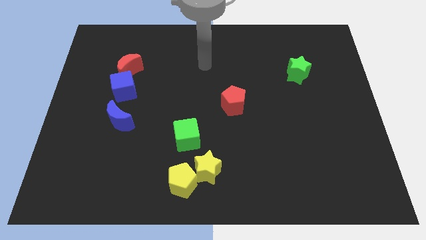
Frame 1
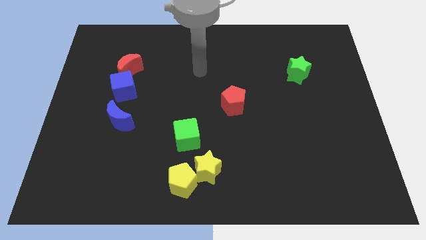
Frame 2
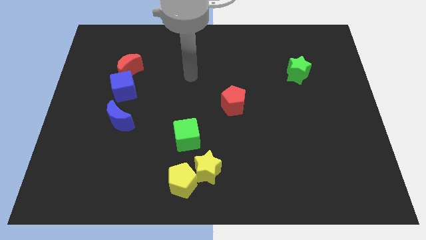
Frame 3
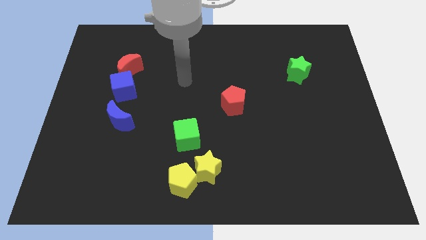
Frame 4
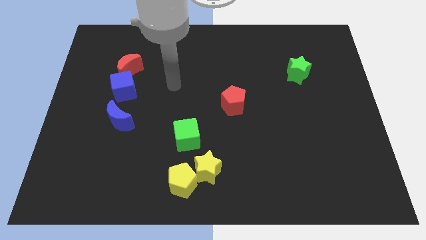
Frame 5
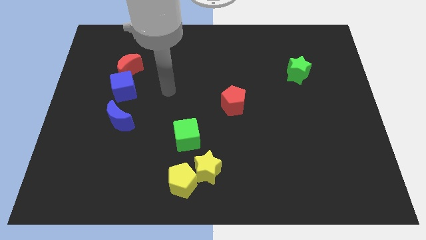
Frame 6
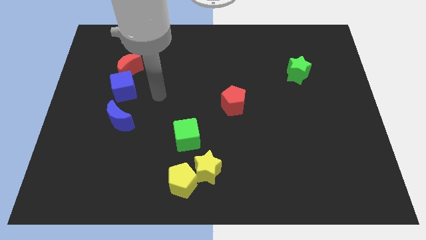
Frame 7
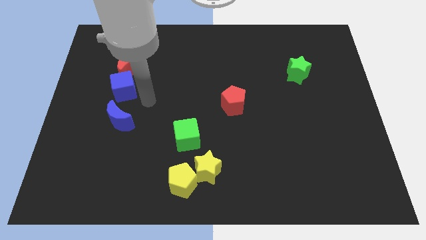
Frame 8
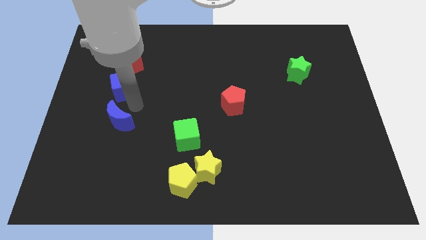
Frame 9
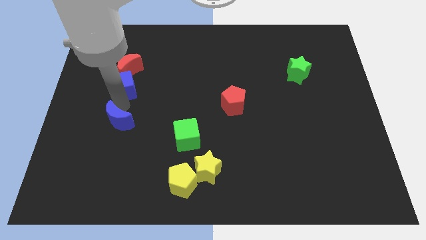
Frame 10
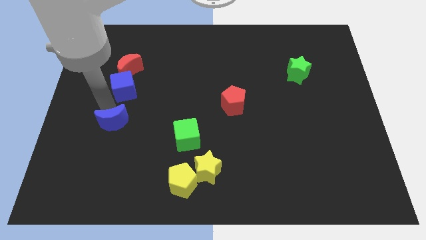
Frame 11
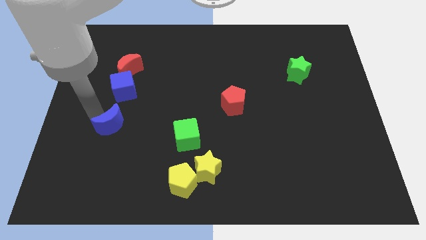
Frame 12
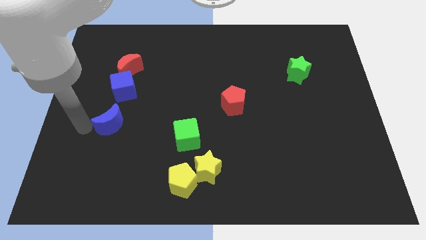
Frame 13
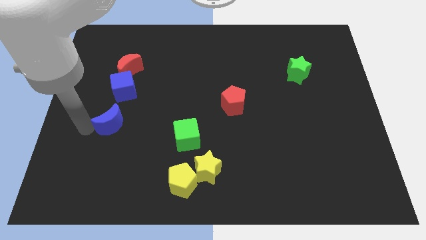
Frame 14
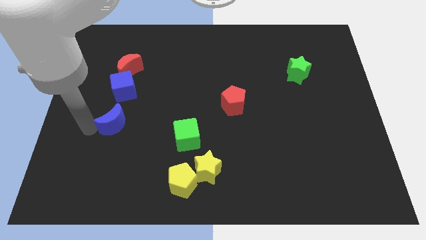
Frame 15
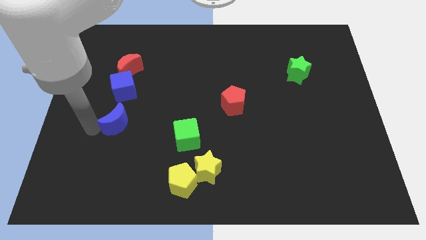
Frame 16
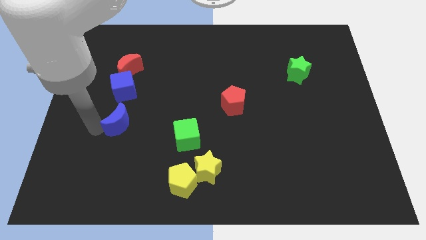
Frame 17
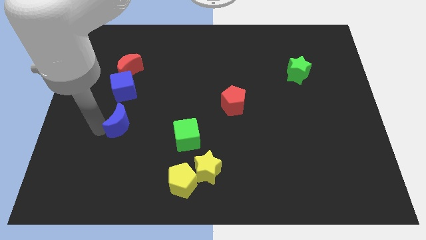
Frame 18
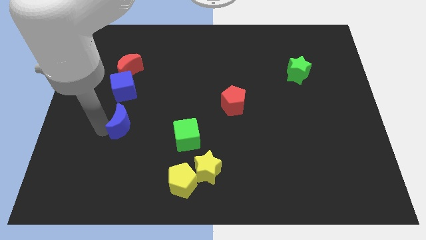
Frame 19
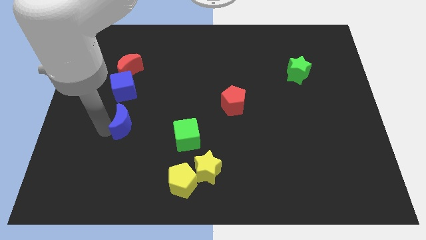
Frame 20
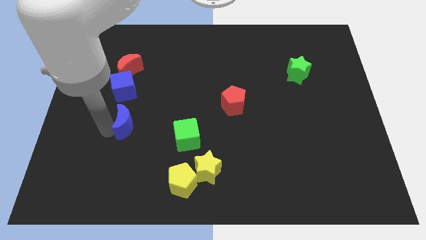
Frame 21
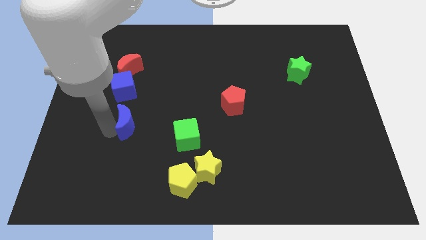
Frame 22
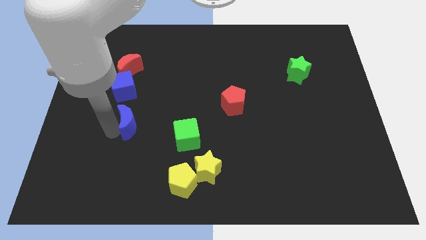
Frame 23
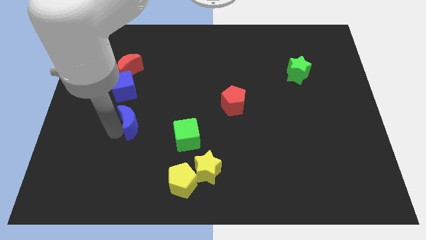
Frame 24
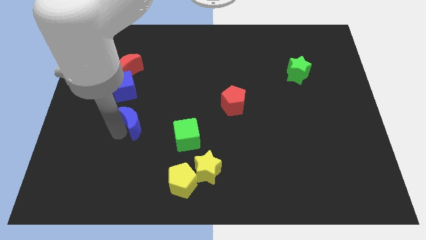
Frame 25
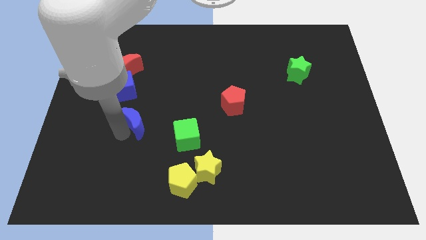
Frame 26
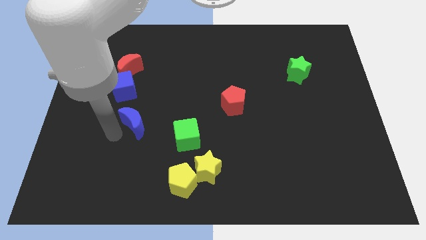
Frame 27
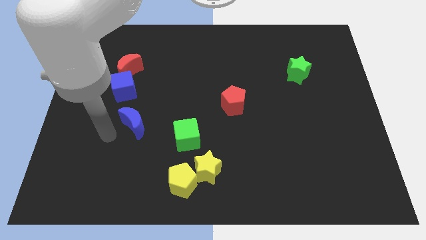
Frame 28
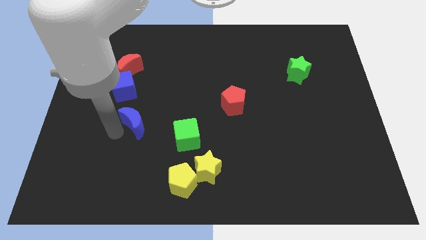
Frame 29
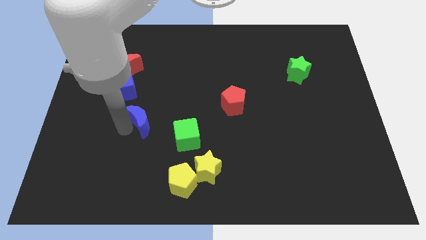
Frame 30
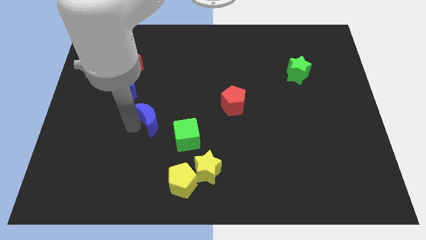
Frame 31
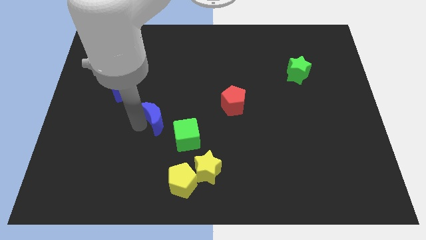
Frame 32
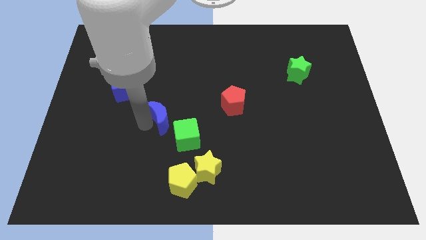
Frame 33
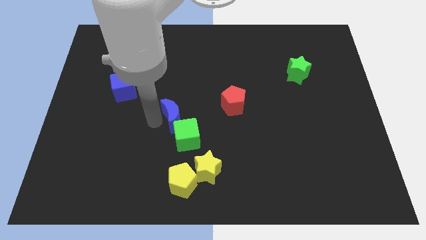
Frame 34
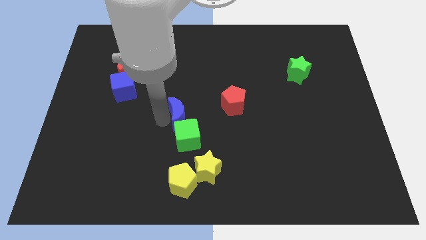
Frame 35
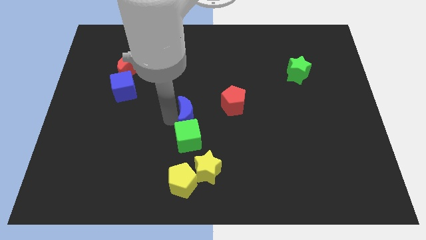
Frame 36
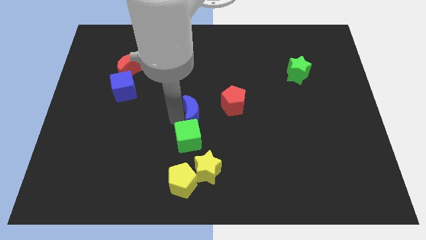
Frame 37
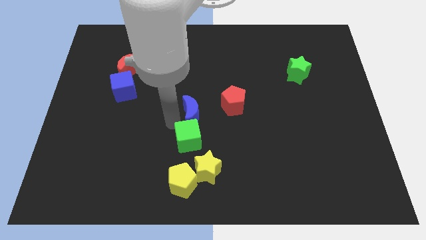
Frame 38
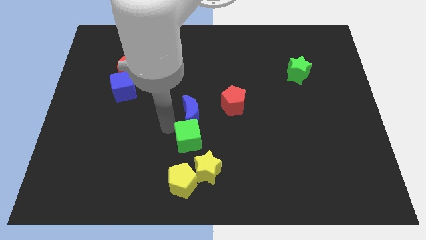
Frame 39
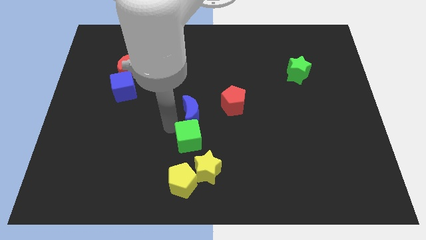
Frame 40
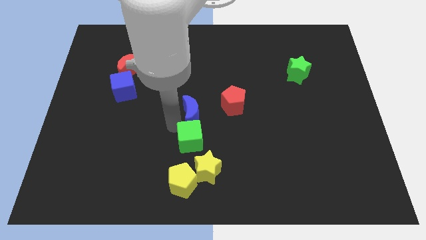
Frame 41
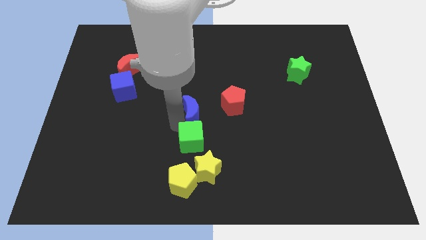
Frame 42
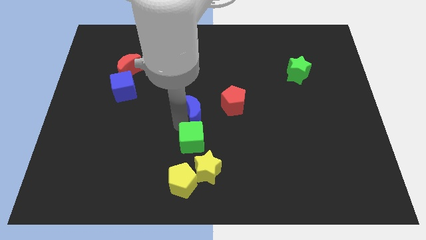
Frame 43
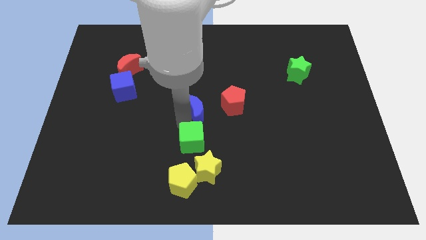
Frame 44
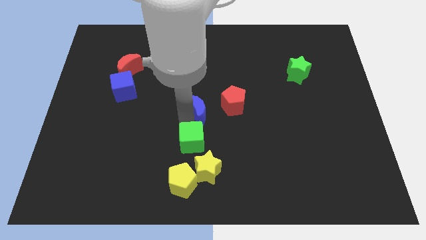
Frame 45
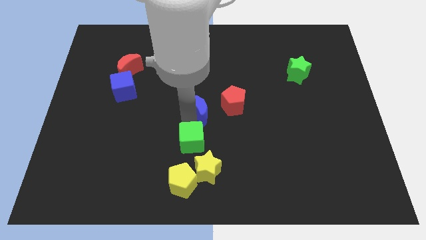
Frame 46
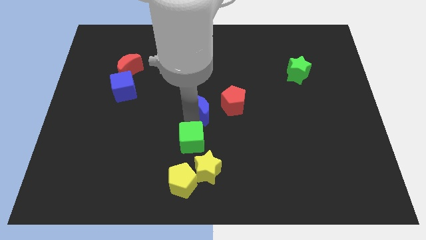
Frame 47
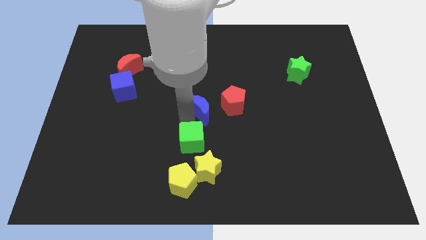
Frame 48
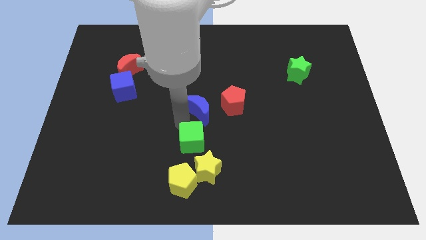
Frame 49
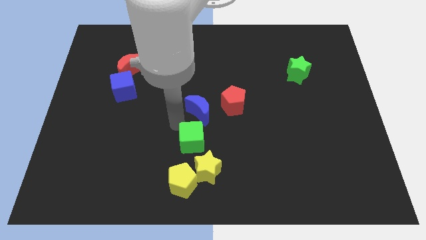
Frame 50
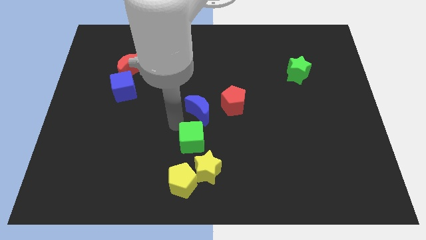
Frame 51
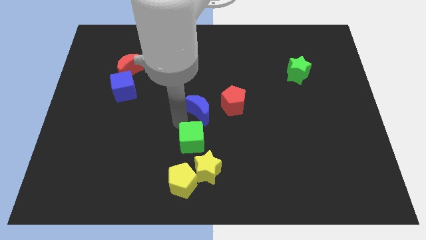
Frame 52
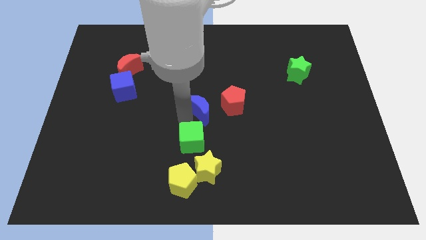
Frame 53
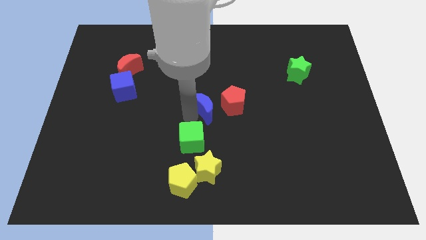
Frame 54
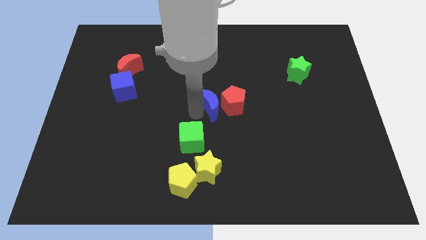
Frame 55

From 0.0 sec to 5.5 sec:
put the blue moon to the red pentagon

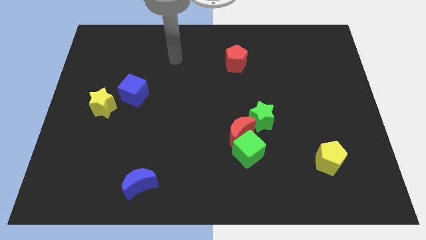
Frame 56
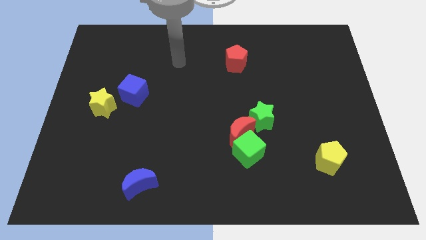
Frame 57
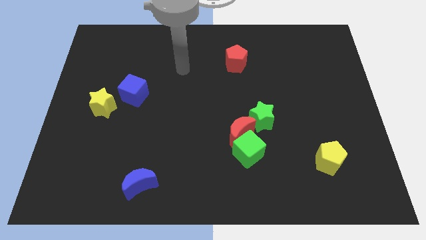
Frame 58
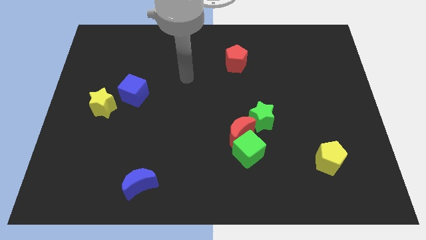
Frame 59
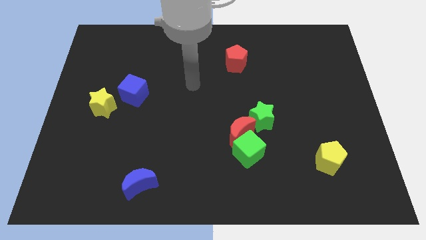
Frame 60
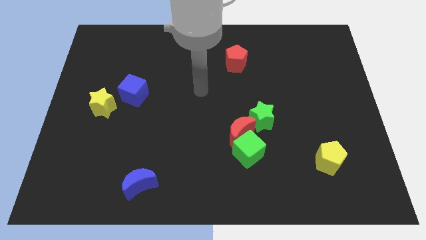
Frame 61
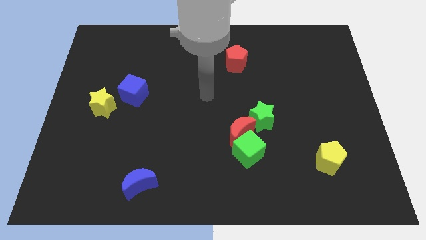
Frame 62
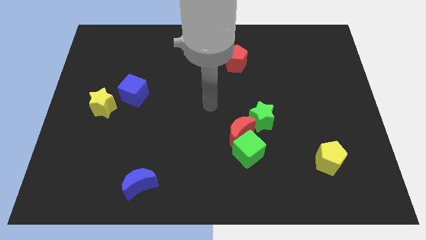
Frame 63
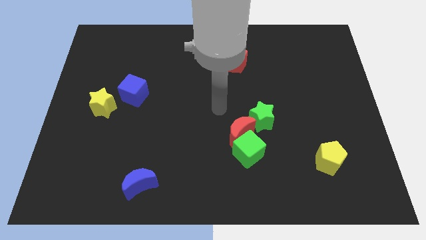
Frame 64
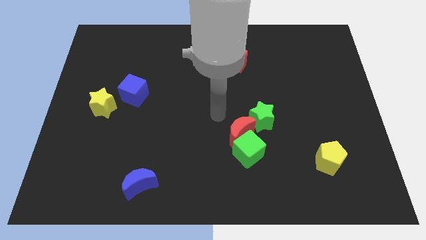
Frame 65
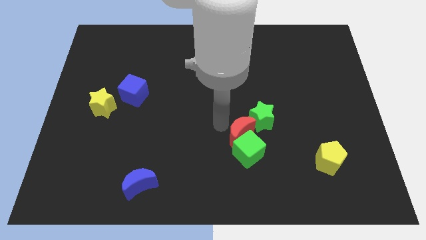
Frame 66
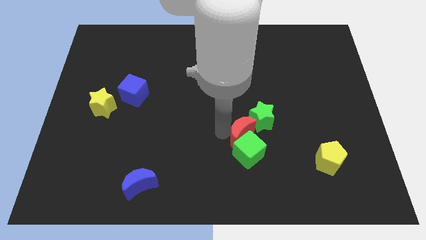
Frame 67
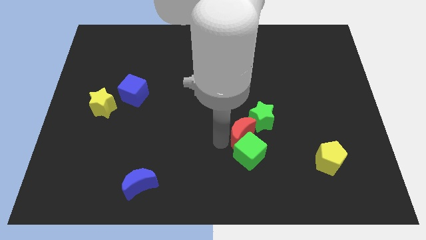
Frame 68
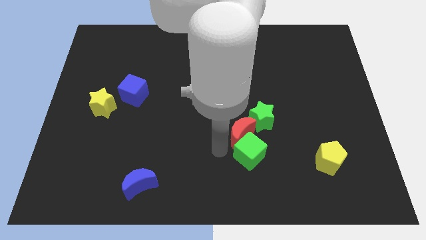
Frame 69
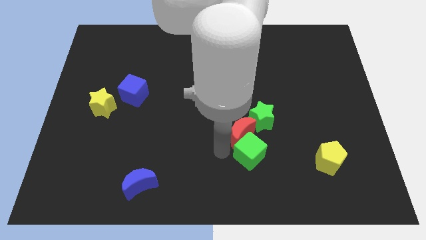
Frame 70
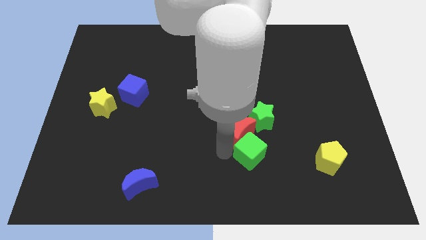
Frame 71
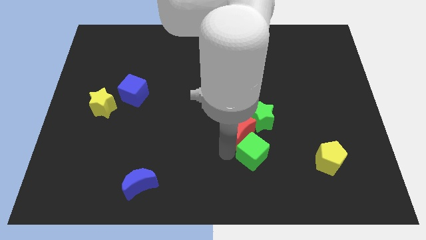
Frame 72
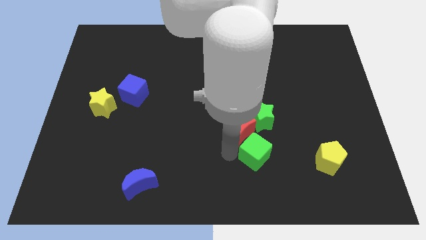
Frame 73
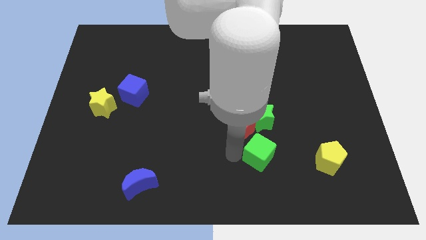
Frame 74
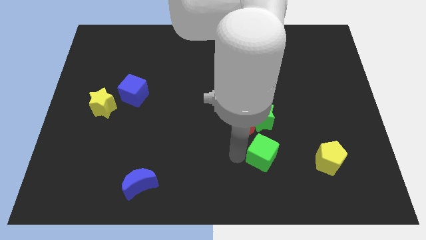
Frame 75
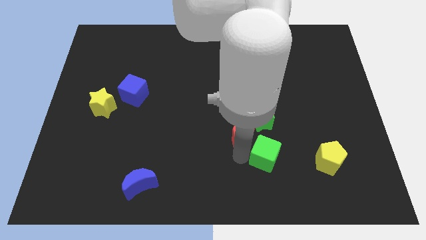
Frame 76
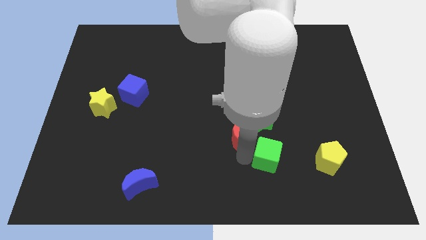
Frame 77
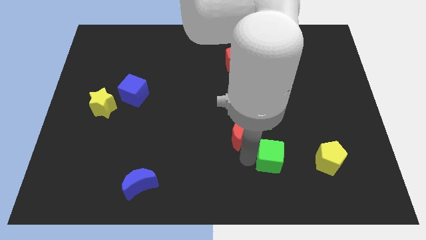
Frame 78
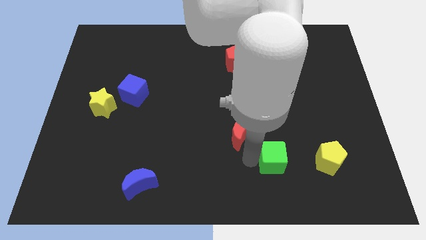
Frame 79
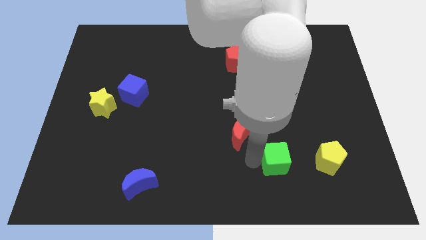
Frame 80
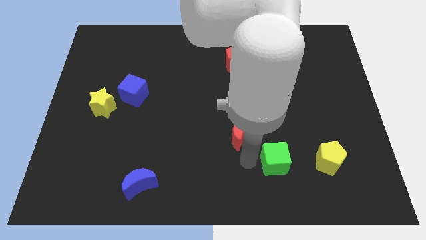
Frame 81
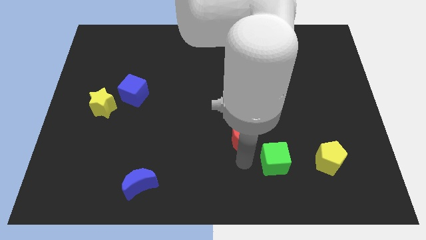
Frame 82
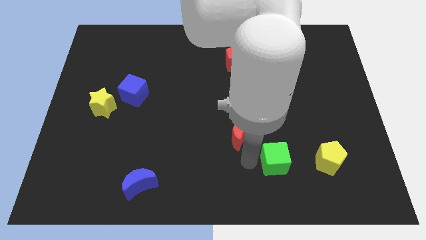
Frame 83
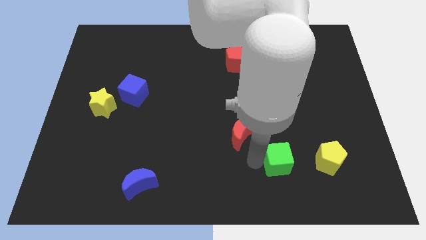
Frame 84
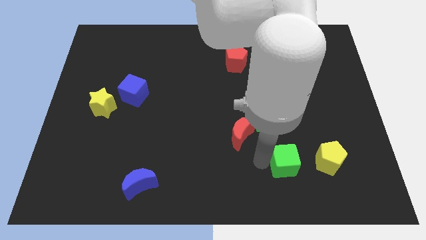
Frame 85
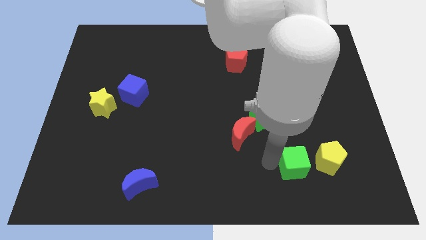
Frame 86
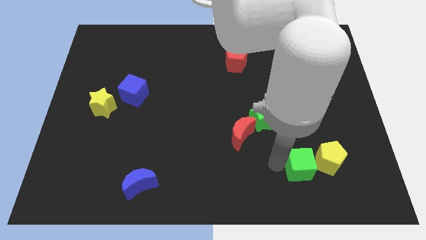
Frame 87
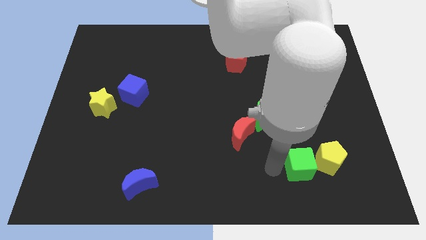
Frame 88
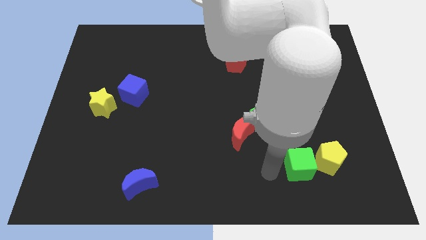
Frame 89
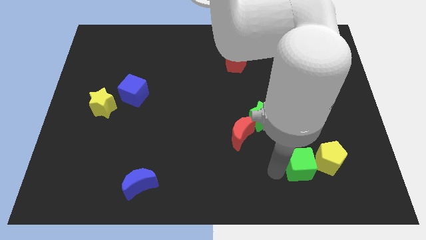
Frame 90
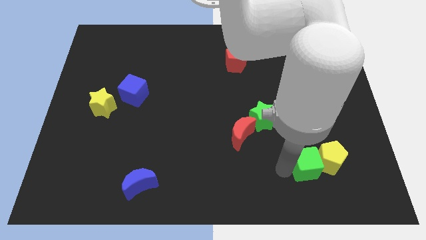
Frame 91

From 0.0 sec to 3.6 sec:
push the green cube towards the yellow pentagon
